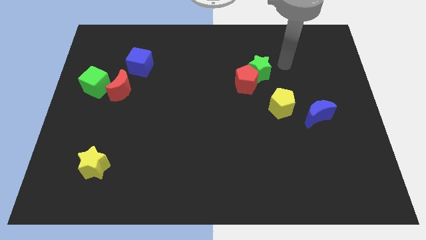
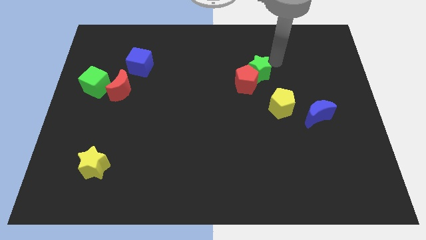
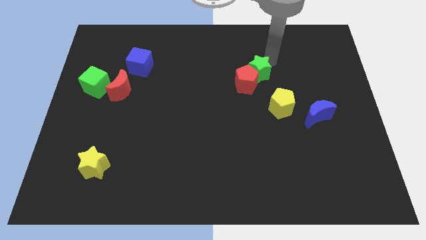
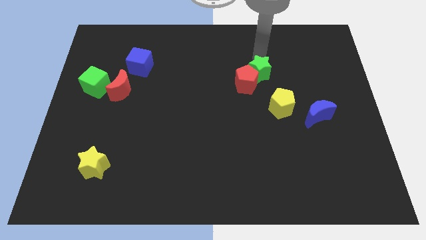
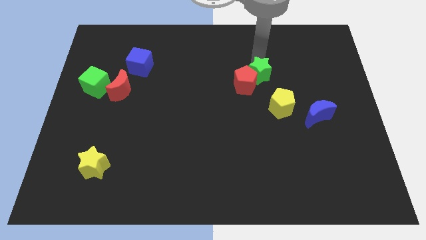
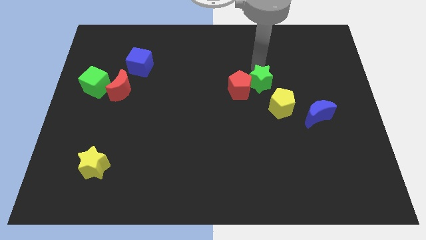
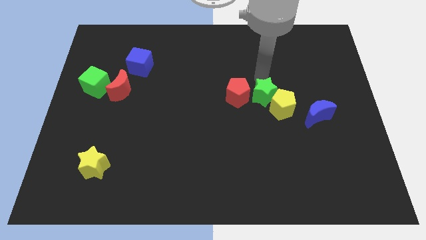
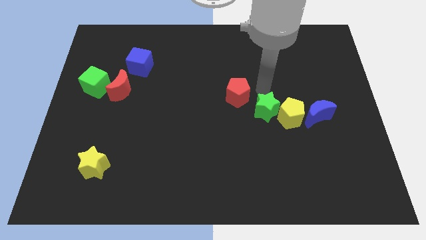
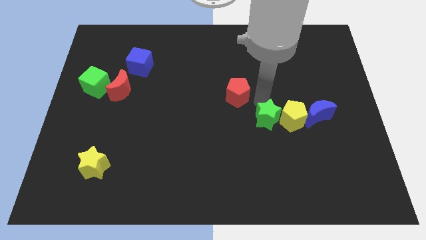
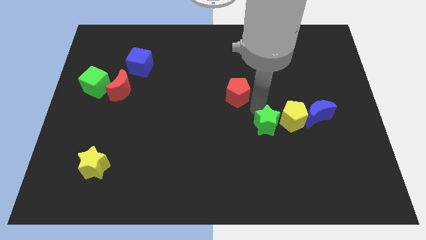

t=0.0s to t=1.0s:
separate the red pentagon from the green star

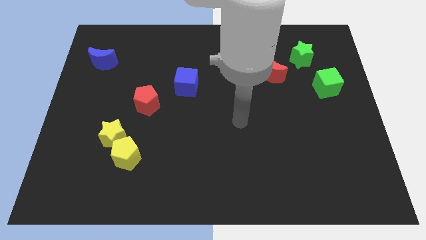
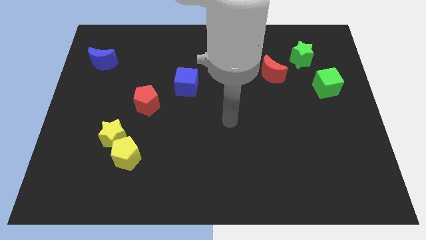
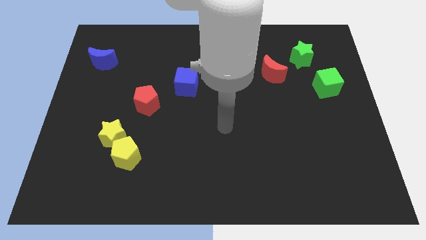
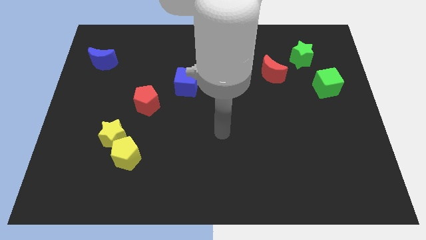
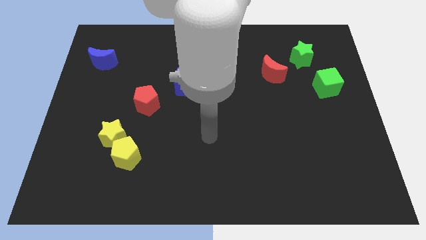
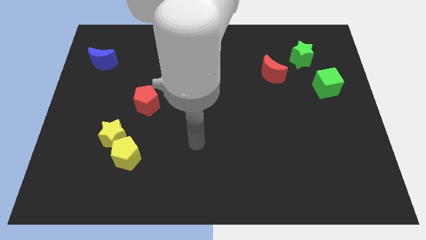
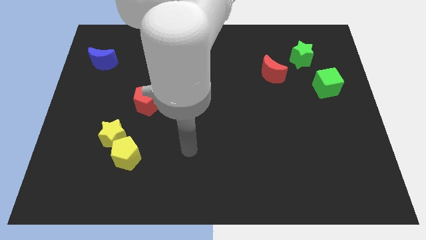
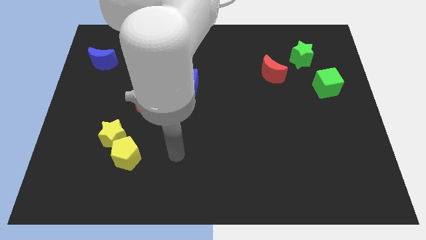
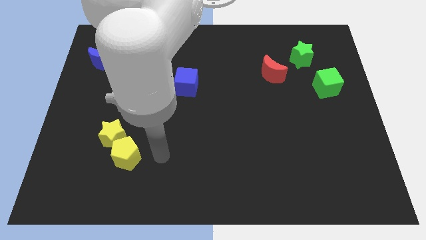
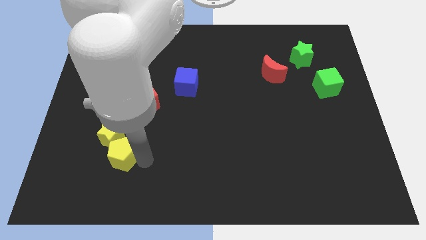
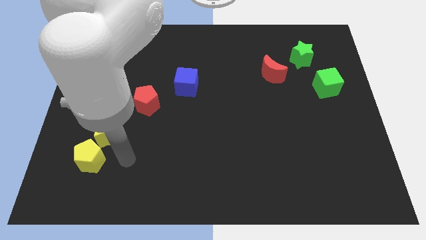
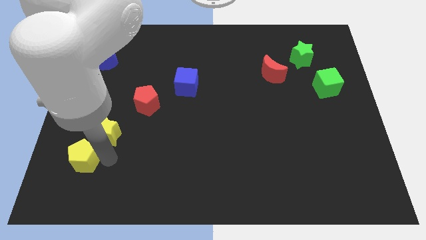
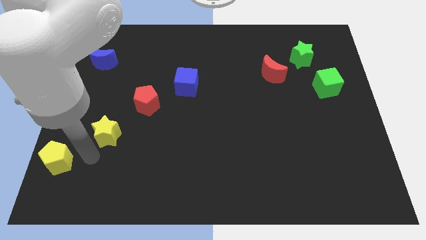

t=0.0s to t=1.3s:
move the yellow star away from the yellow pentagon

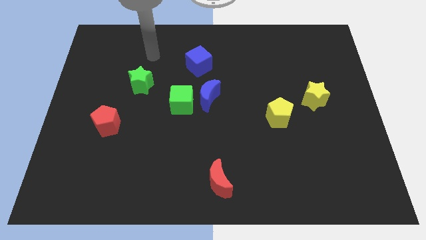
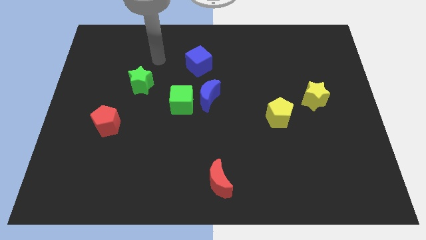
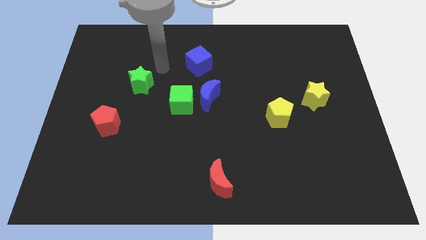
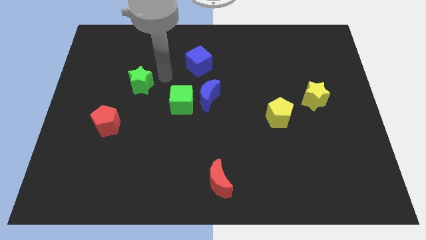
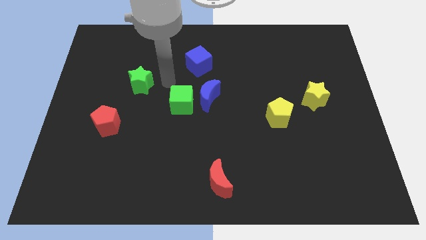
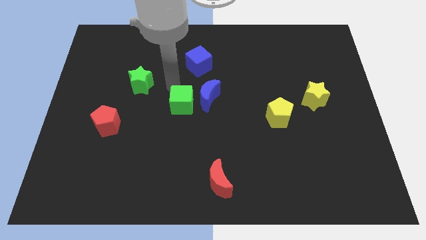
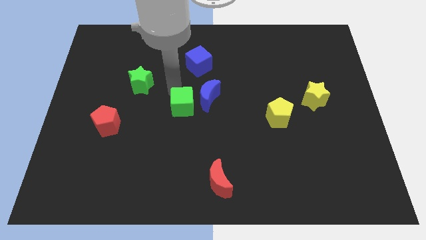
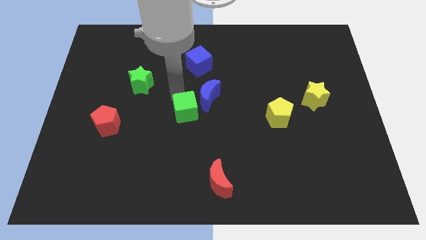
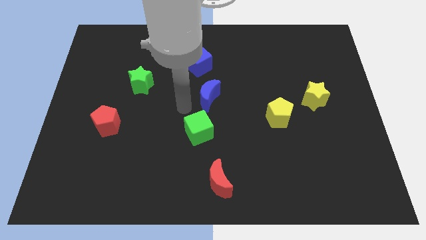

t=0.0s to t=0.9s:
pull the blue moon apart from the green cube

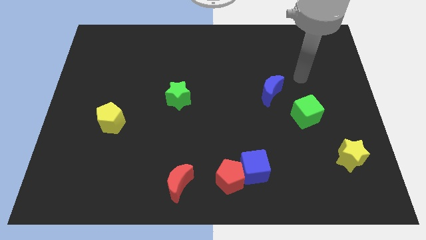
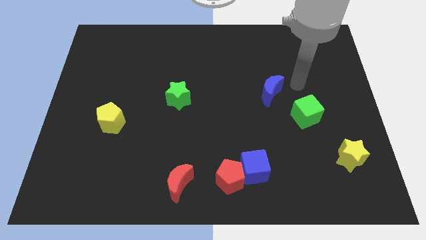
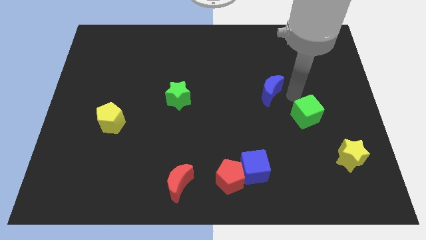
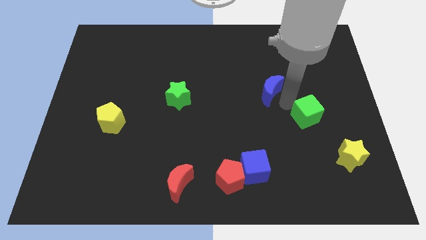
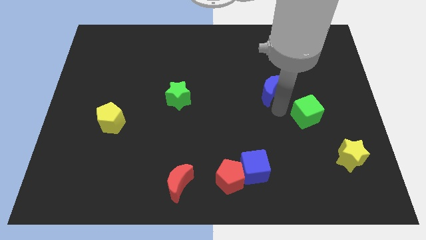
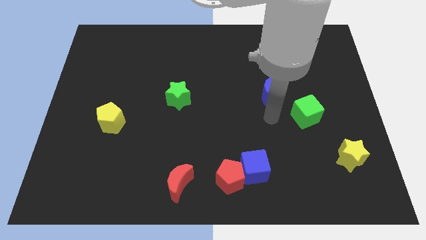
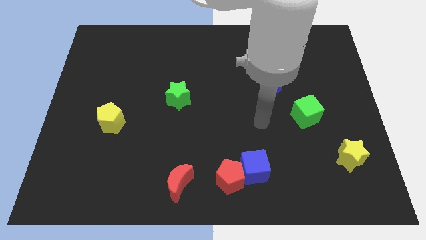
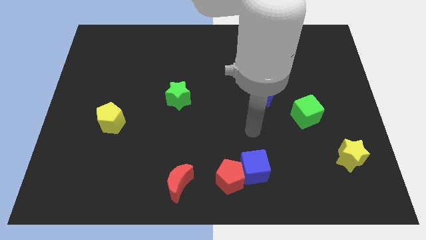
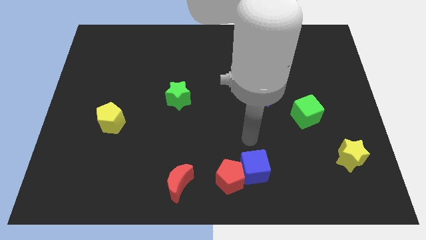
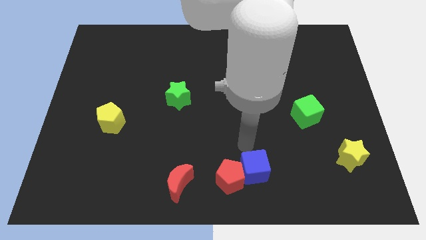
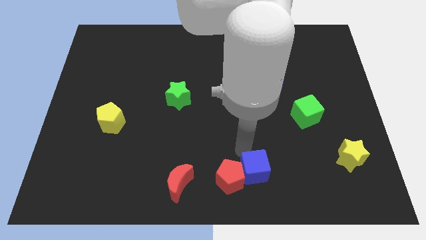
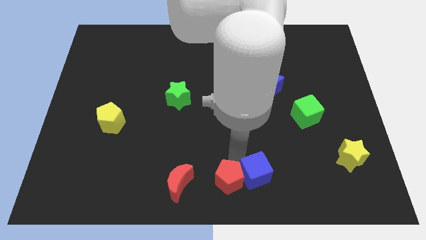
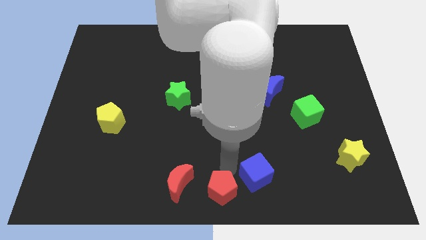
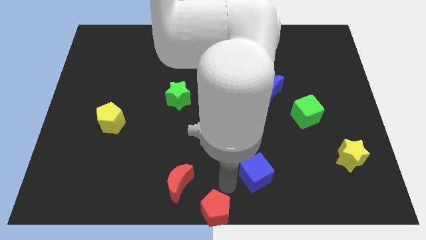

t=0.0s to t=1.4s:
move the blue cube away from the red pentagon

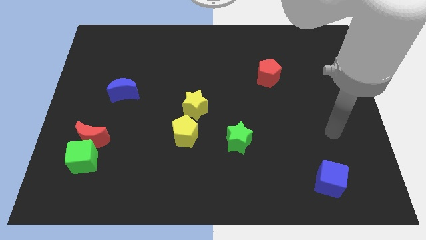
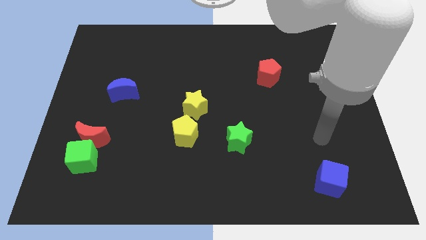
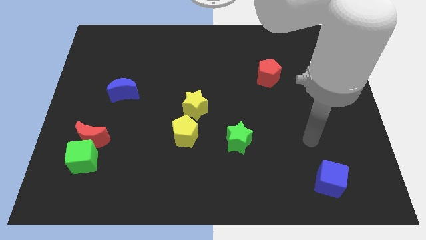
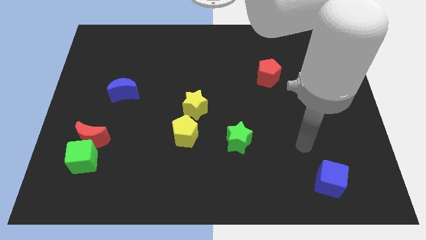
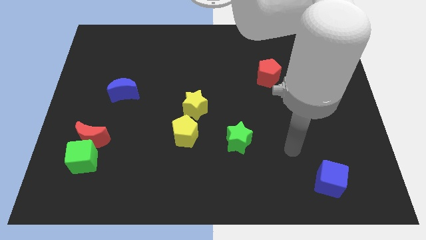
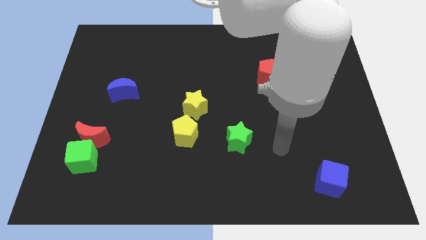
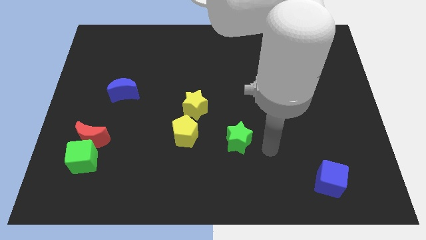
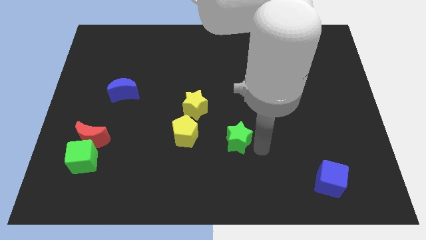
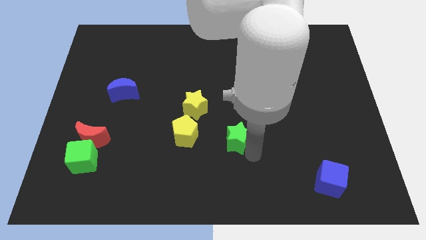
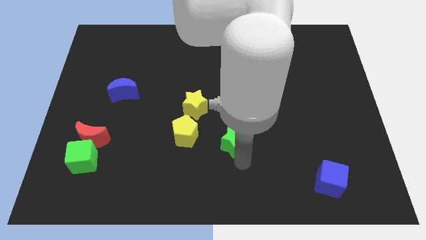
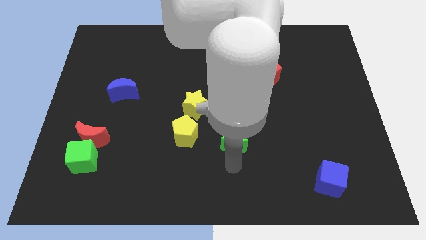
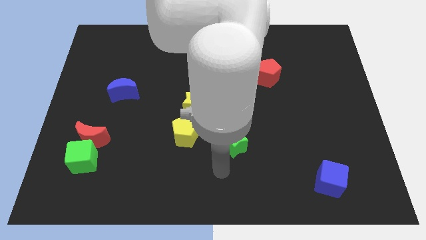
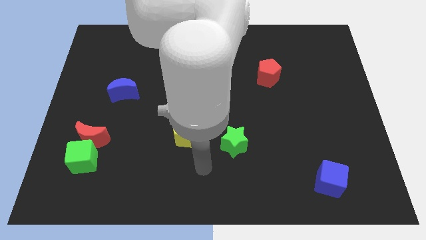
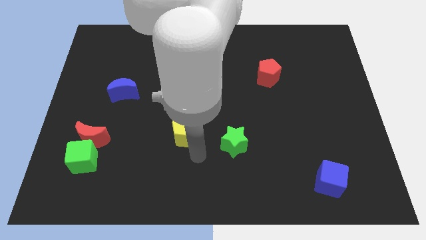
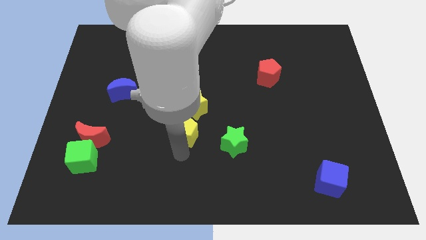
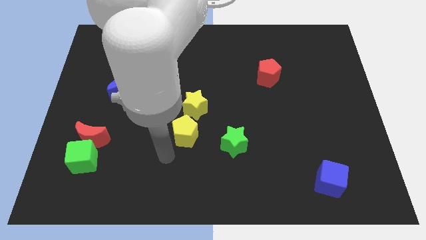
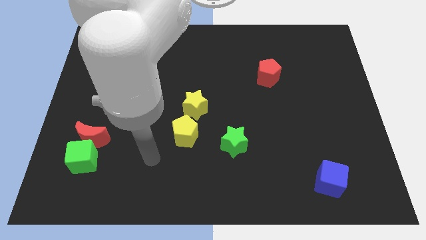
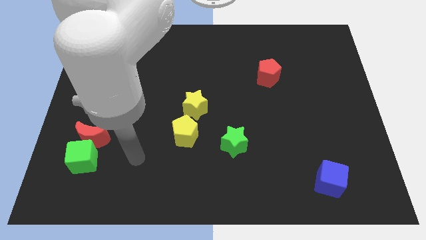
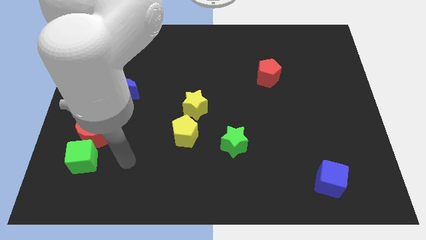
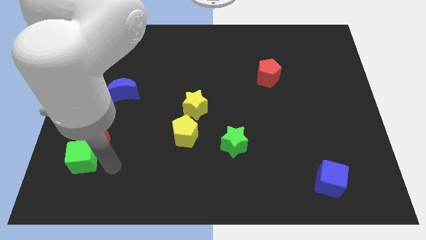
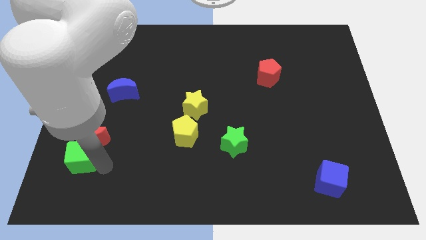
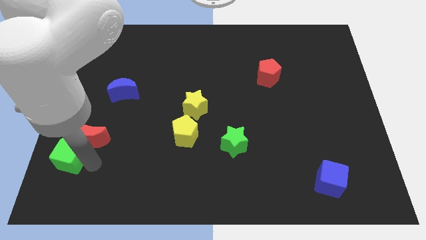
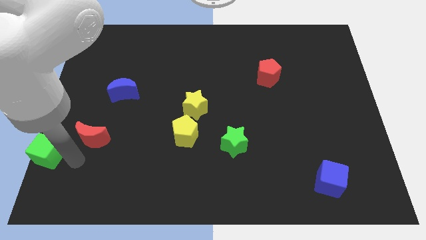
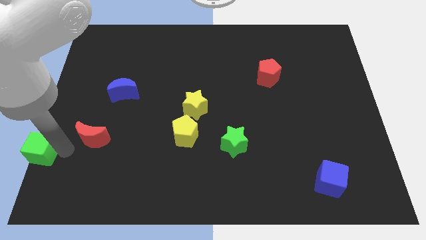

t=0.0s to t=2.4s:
move the red moon away from the green cube

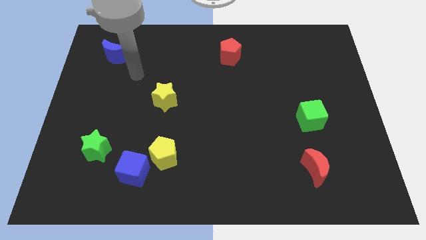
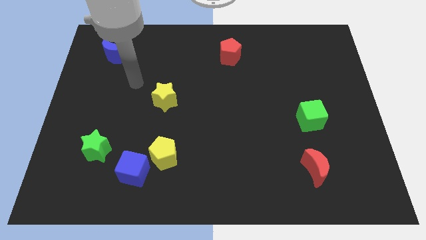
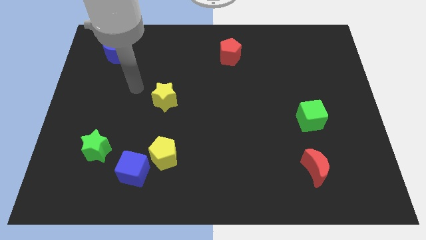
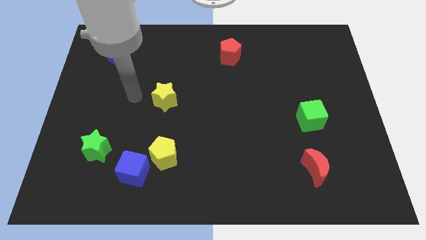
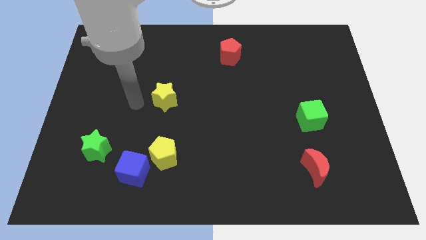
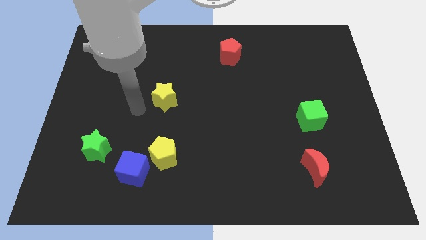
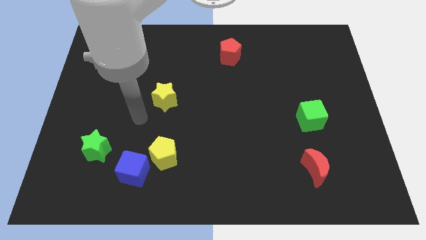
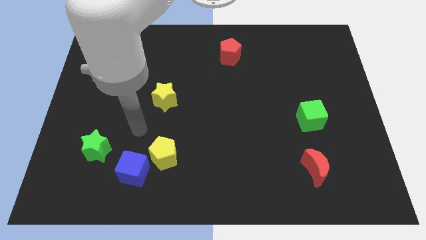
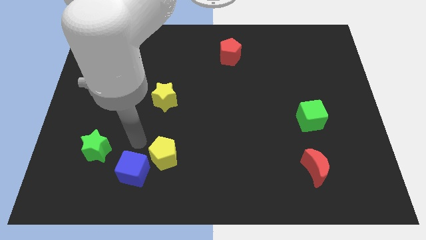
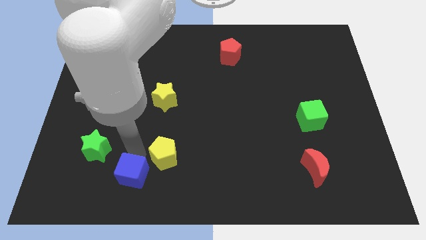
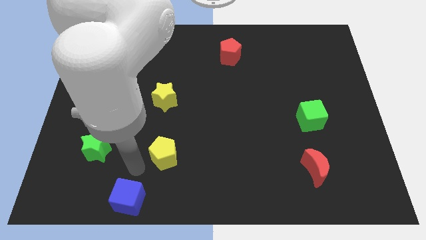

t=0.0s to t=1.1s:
separate the yellow pentagon from the blue cube

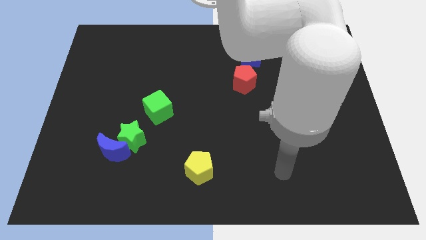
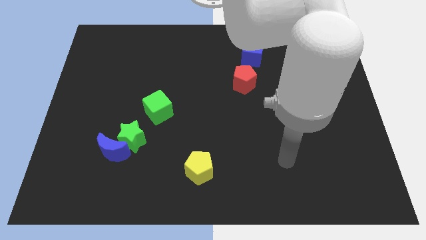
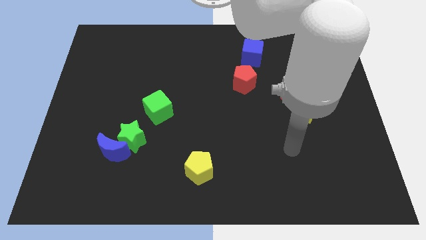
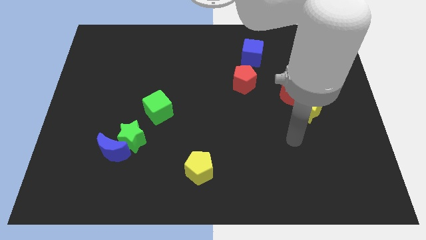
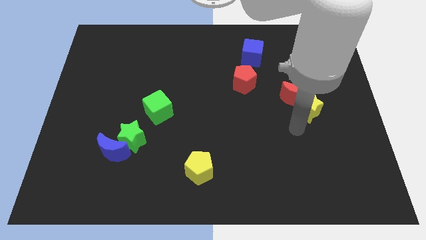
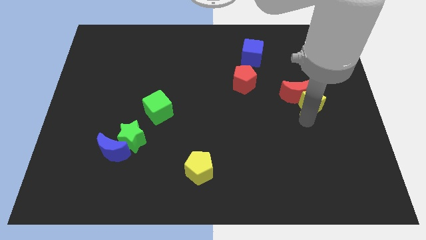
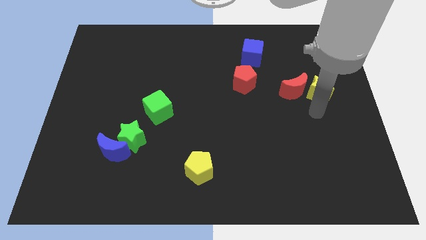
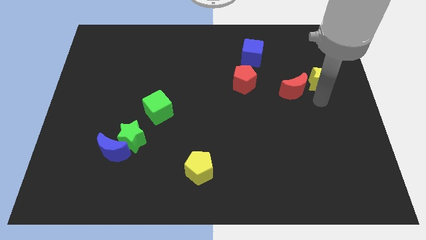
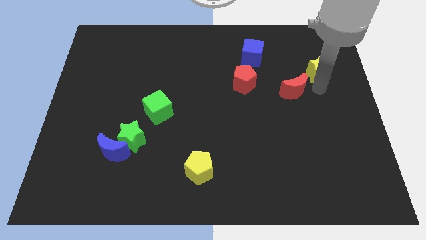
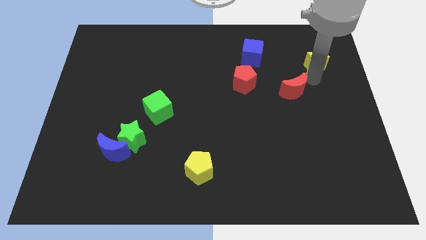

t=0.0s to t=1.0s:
separate the red moon from the yellow star
